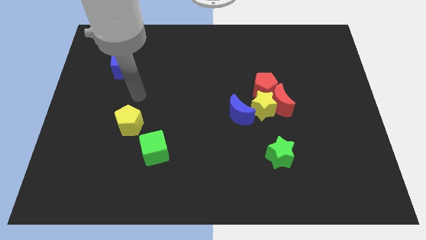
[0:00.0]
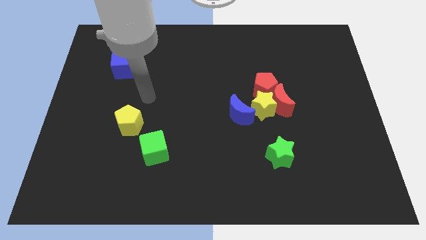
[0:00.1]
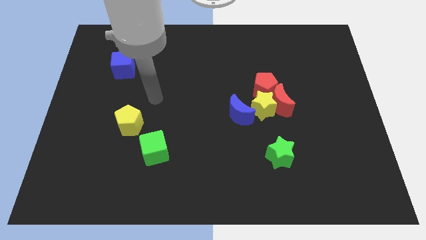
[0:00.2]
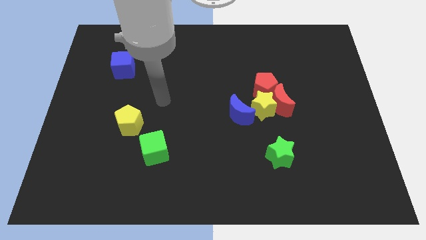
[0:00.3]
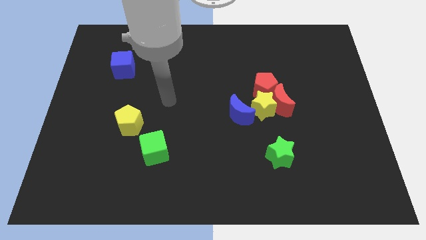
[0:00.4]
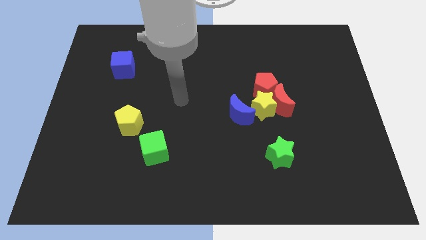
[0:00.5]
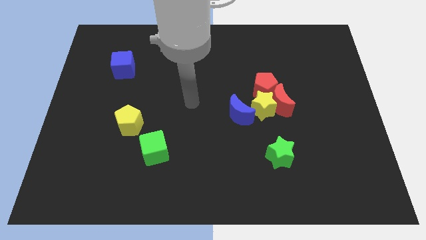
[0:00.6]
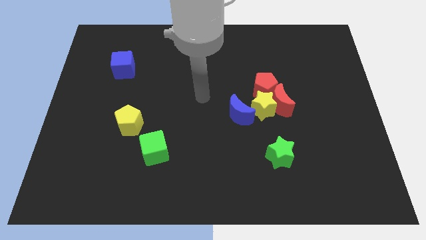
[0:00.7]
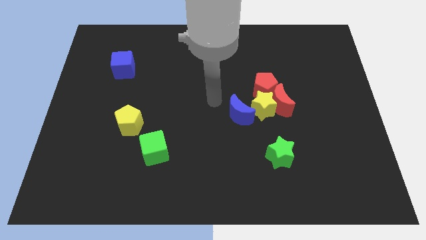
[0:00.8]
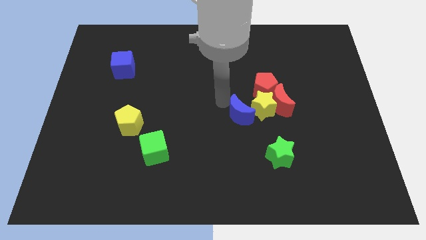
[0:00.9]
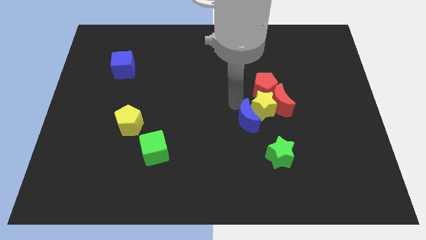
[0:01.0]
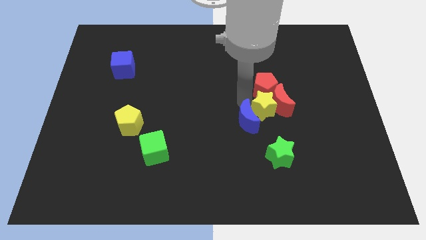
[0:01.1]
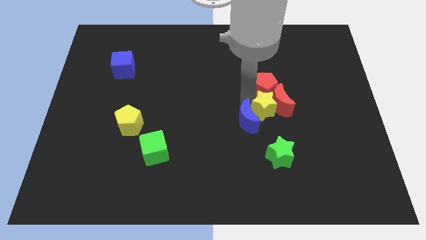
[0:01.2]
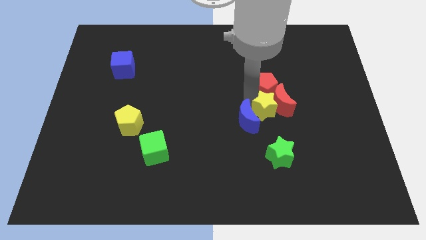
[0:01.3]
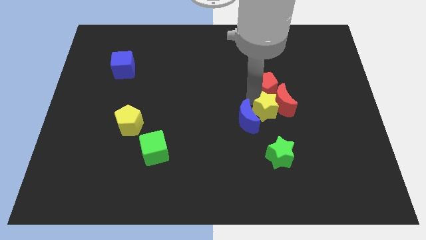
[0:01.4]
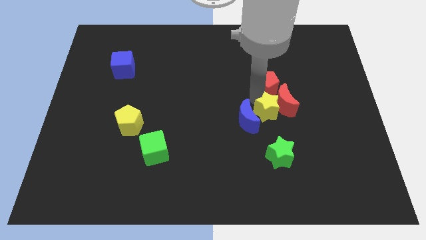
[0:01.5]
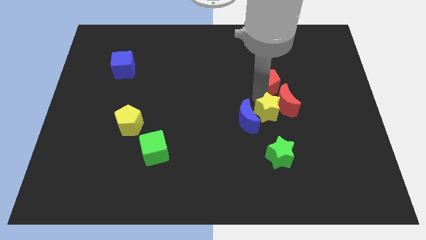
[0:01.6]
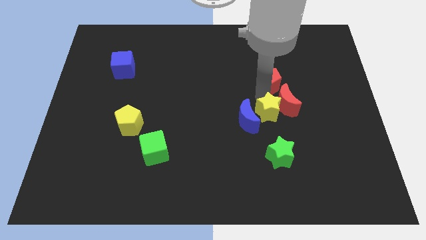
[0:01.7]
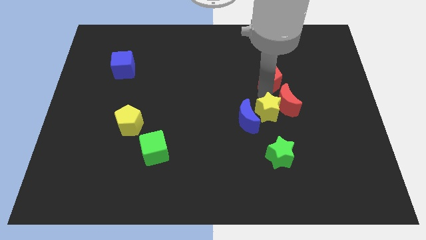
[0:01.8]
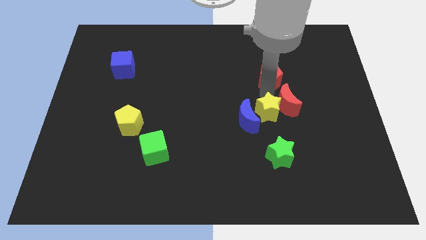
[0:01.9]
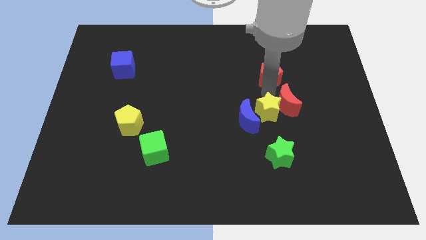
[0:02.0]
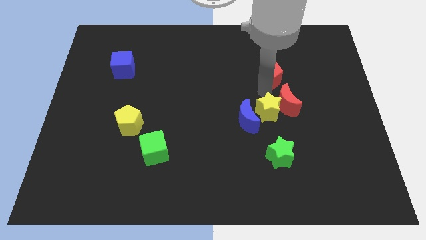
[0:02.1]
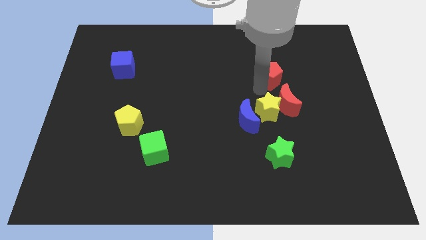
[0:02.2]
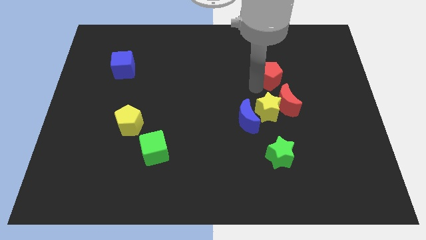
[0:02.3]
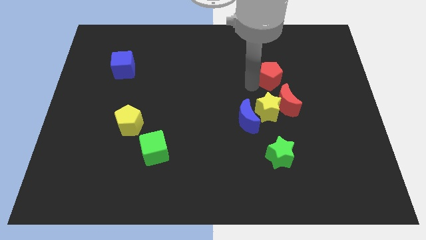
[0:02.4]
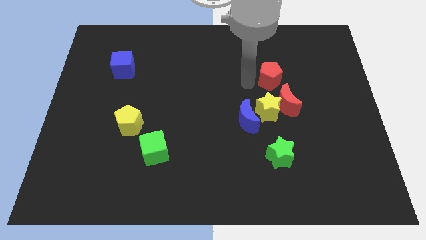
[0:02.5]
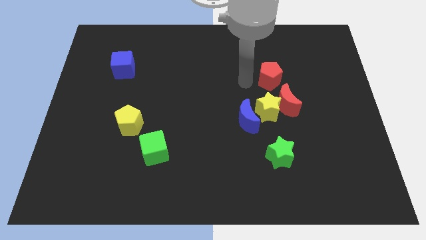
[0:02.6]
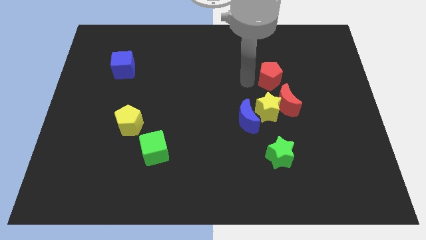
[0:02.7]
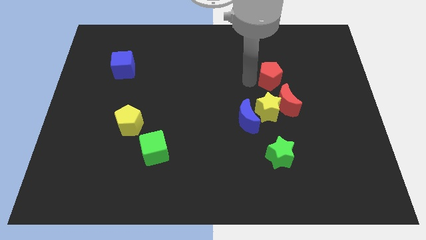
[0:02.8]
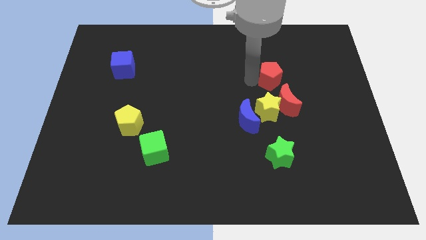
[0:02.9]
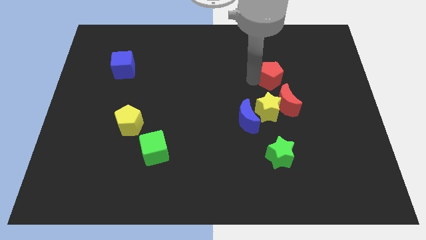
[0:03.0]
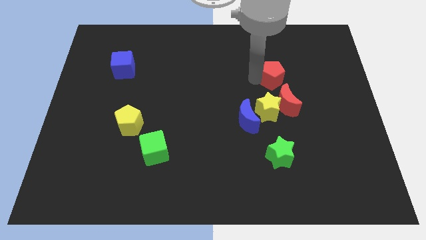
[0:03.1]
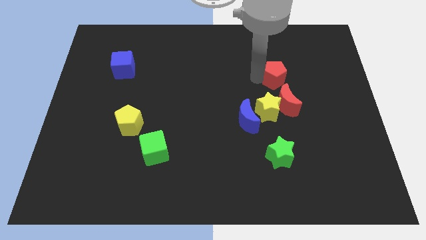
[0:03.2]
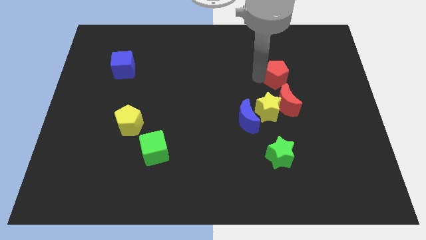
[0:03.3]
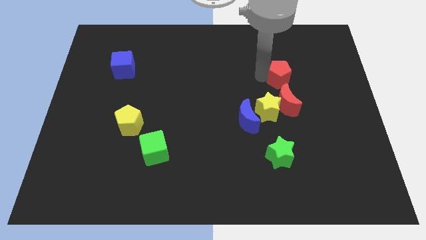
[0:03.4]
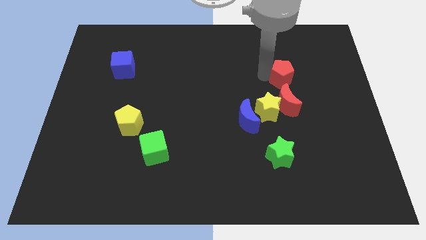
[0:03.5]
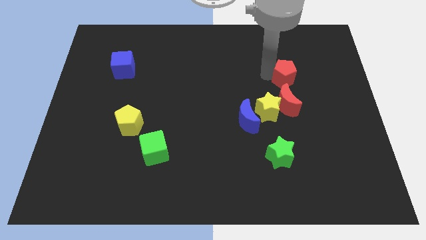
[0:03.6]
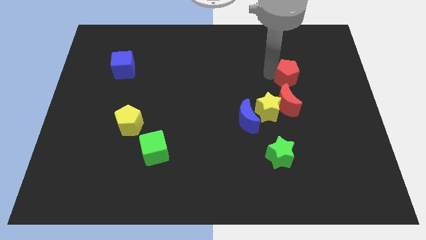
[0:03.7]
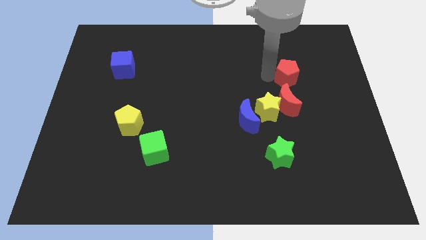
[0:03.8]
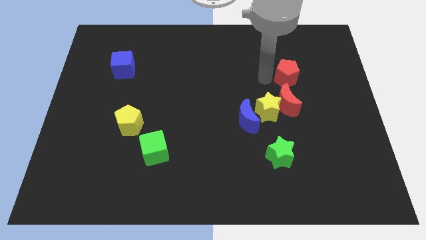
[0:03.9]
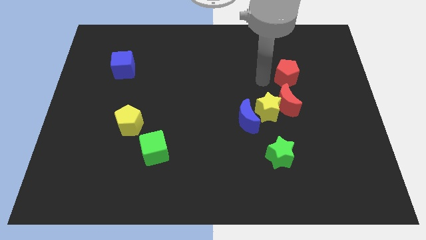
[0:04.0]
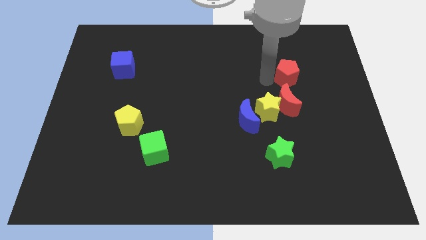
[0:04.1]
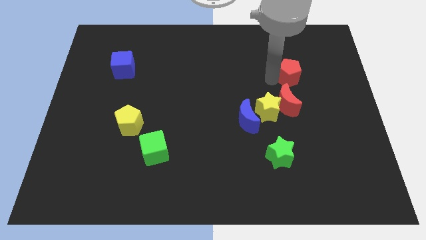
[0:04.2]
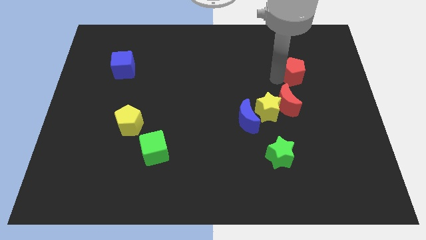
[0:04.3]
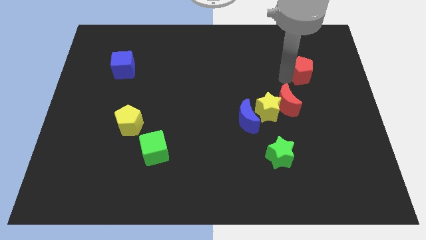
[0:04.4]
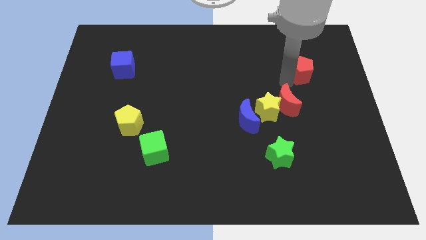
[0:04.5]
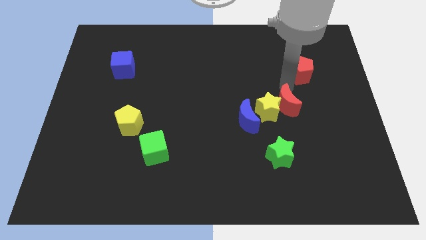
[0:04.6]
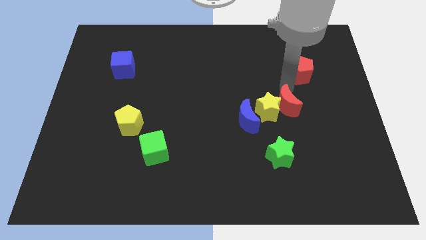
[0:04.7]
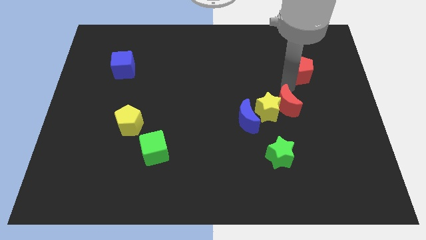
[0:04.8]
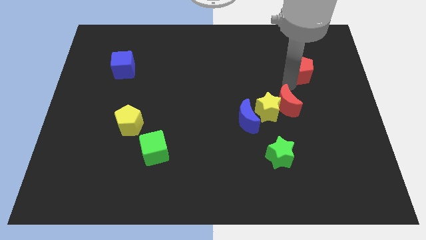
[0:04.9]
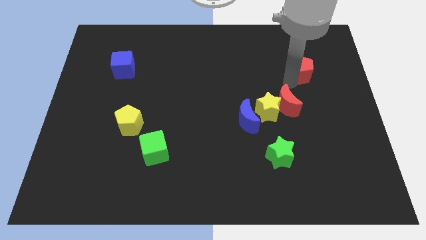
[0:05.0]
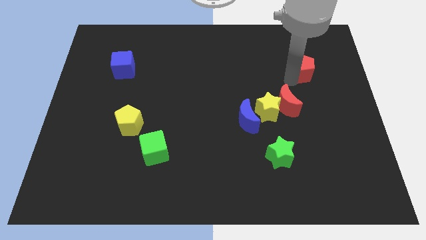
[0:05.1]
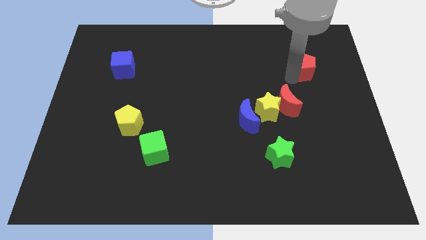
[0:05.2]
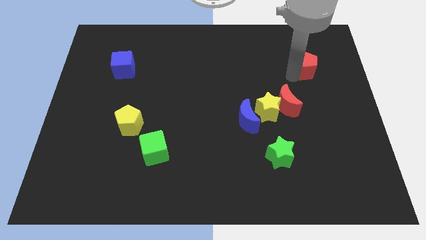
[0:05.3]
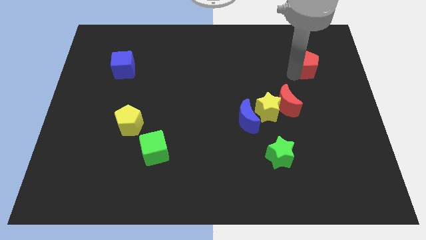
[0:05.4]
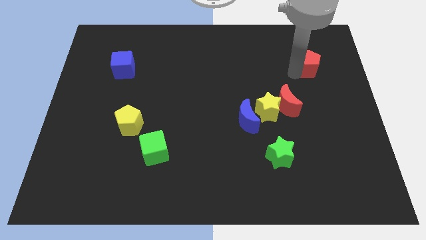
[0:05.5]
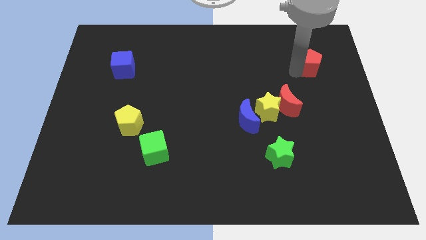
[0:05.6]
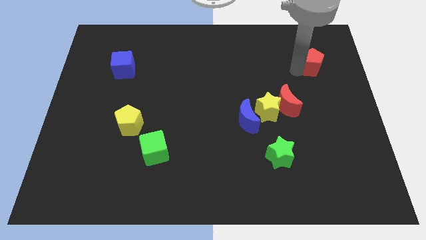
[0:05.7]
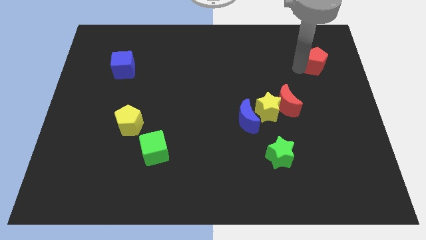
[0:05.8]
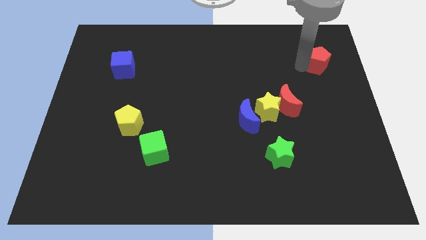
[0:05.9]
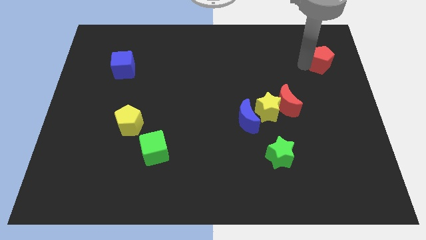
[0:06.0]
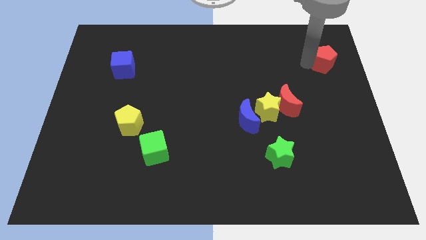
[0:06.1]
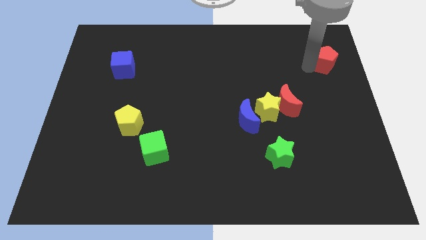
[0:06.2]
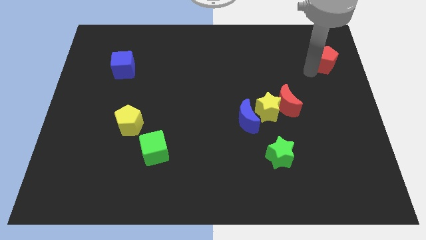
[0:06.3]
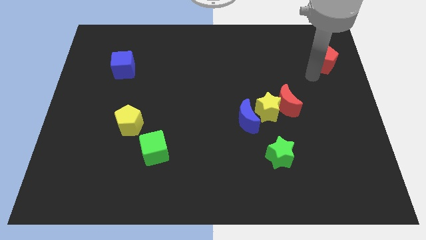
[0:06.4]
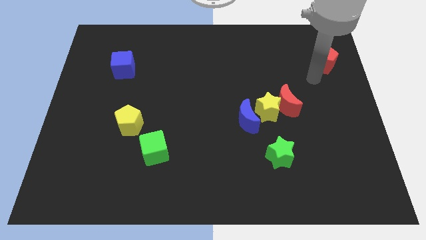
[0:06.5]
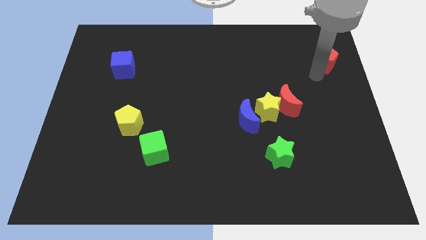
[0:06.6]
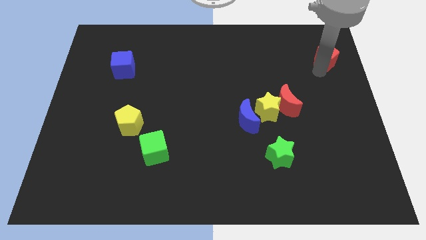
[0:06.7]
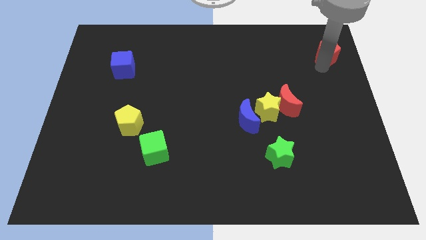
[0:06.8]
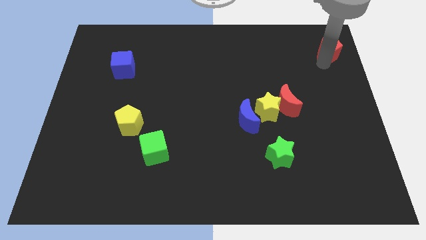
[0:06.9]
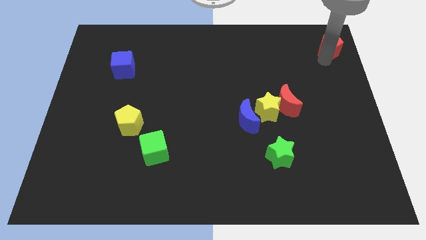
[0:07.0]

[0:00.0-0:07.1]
push the red pentagon to the top right corner
